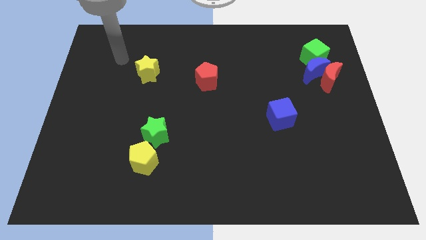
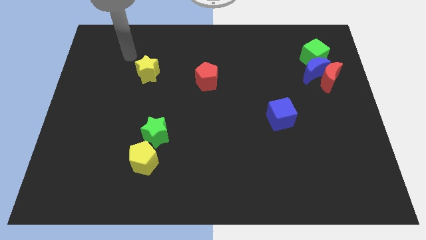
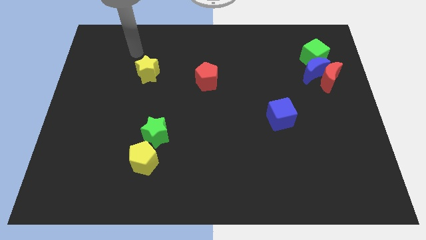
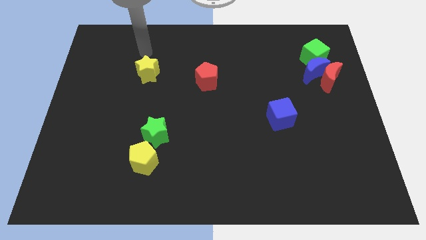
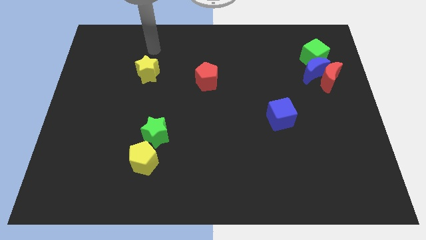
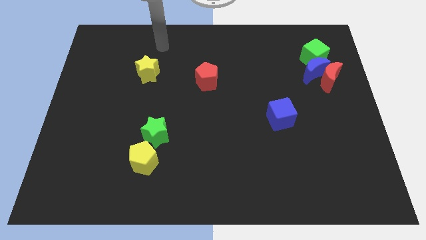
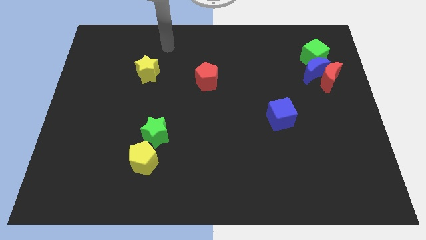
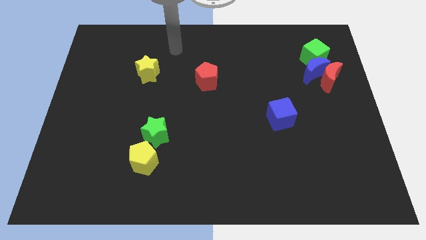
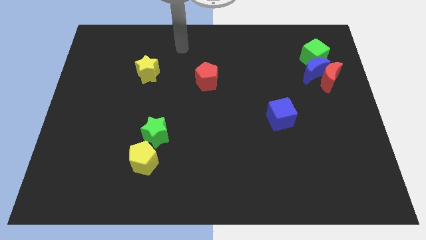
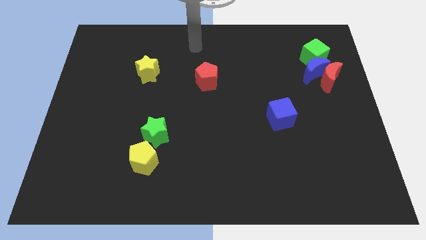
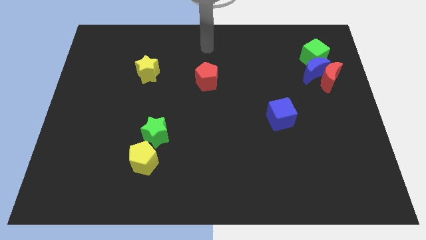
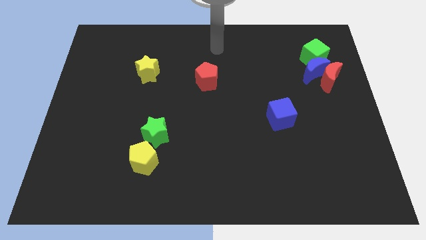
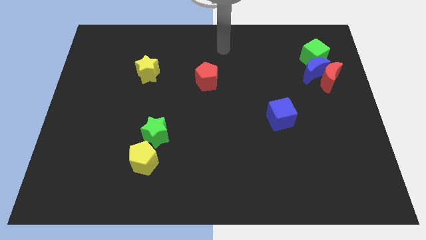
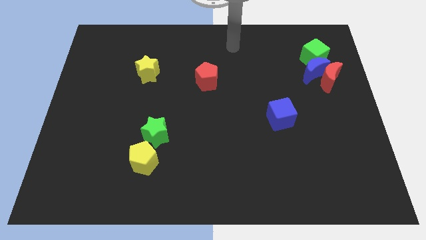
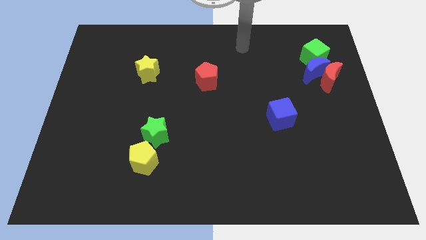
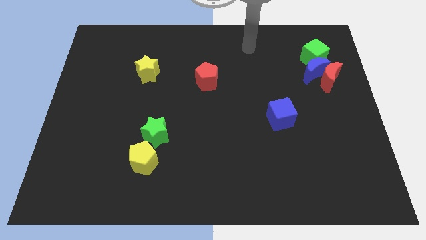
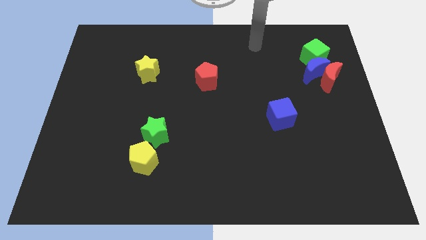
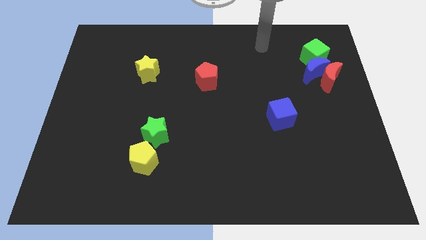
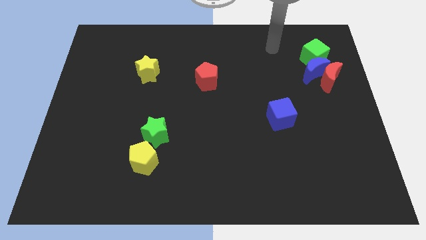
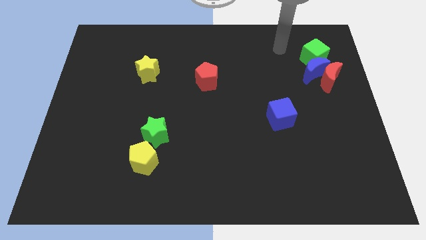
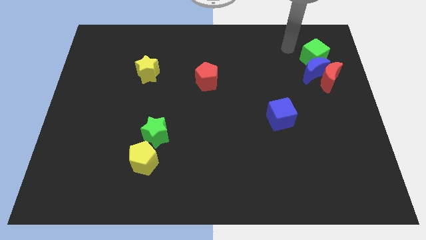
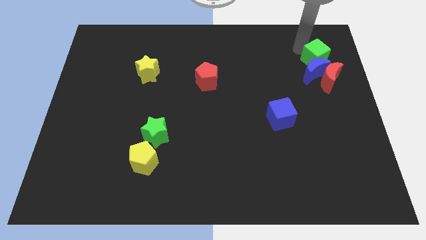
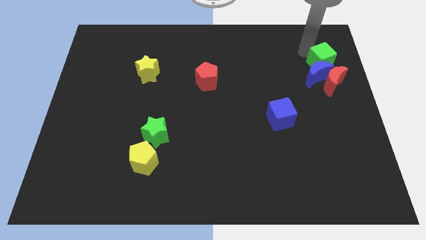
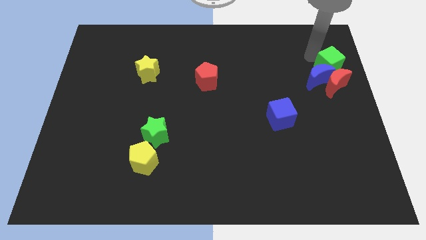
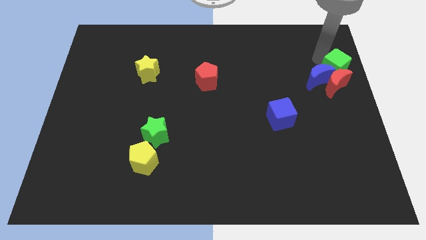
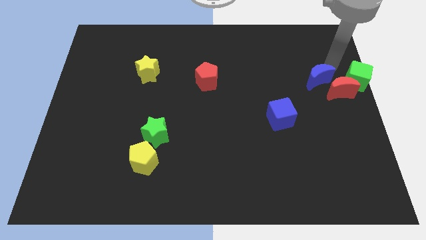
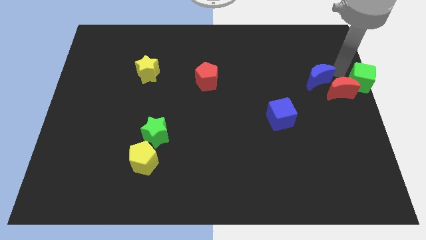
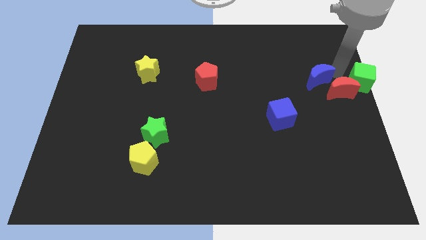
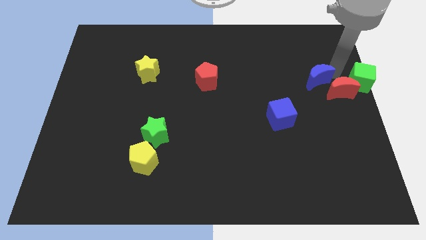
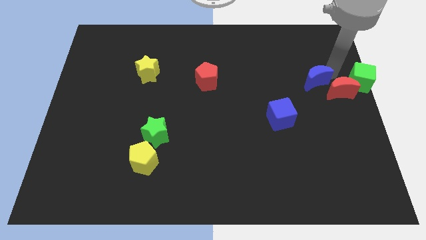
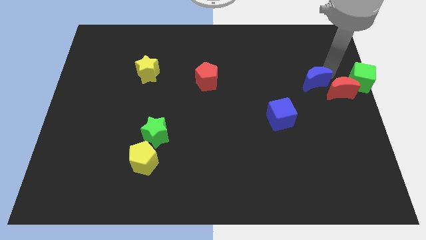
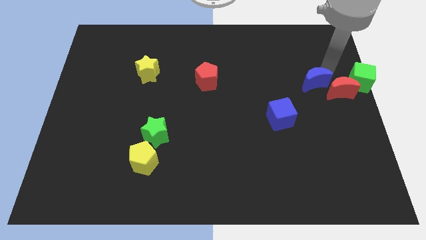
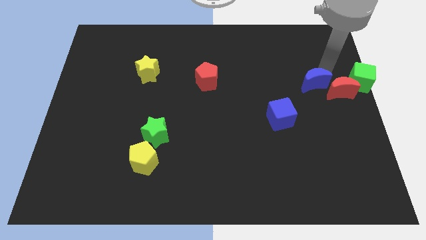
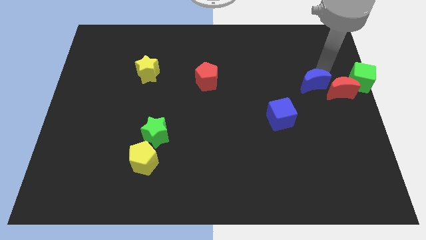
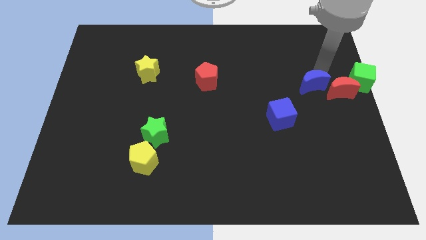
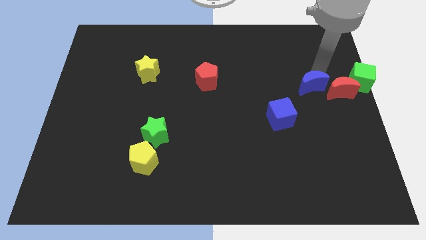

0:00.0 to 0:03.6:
pull the blue moon apart from the red moon and green cube

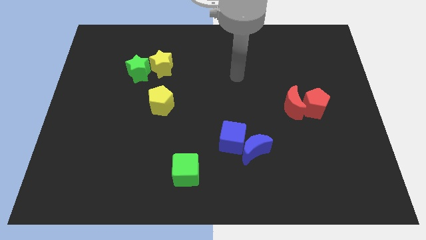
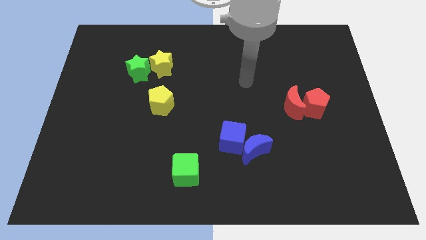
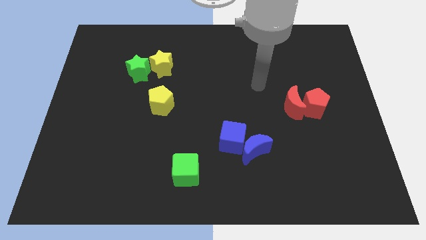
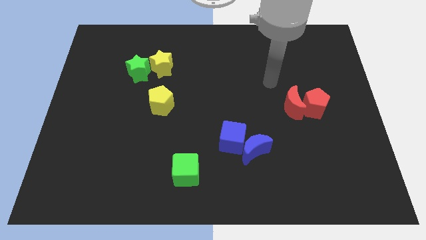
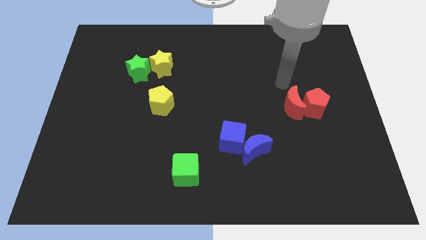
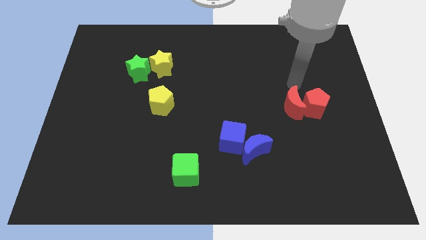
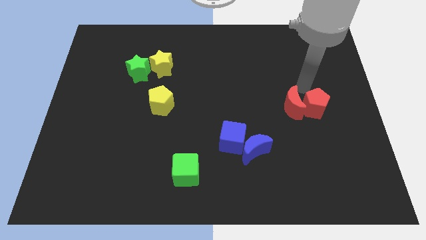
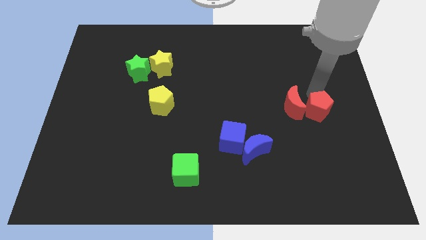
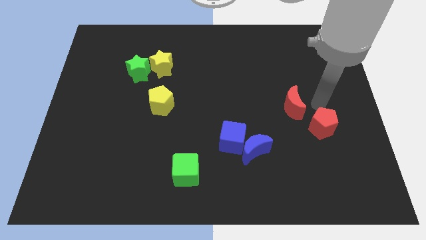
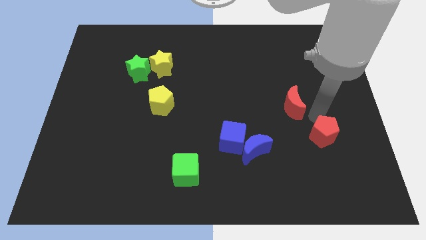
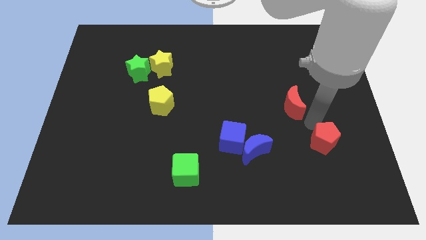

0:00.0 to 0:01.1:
move the red moon away from the red pentagon

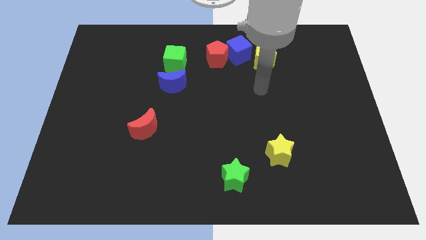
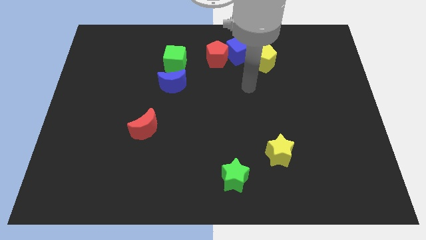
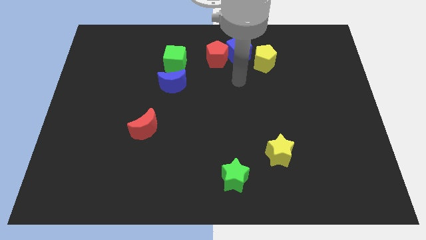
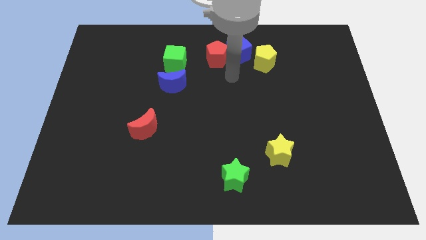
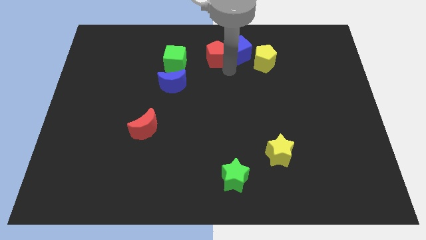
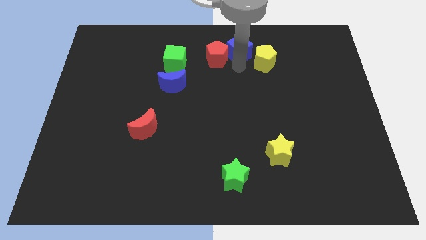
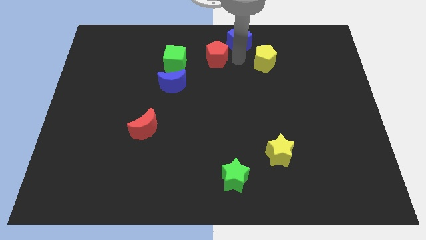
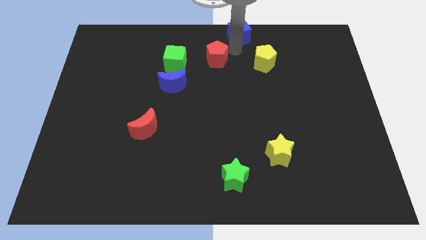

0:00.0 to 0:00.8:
move the red pentagon away from the blue cube

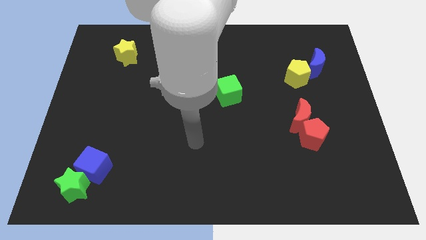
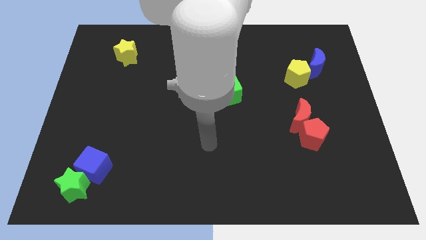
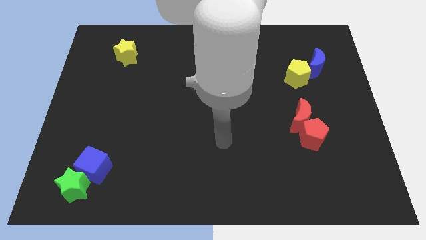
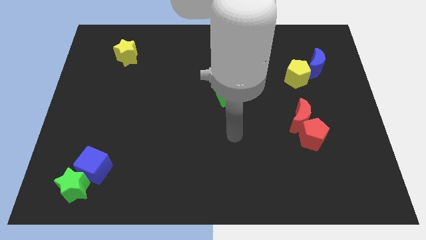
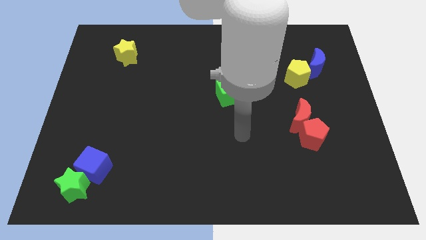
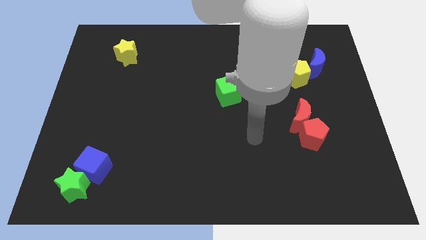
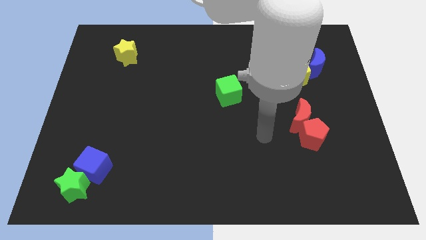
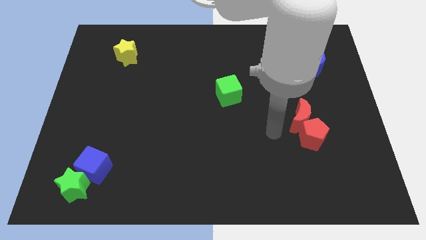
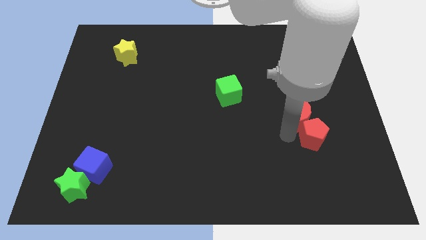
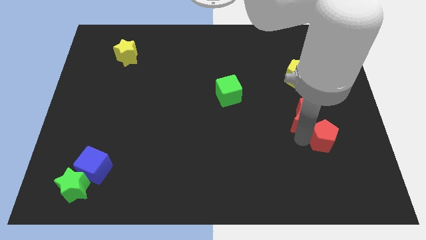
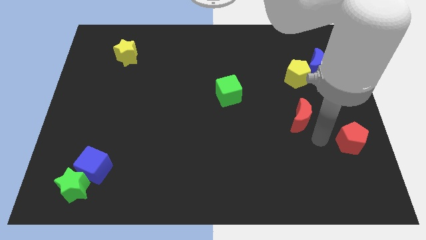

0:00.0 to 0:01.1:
pull the red moon apart from the red pentagon

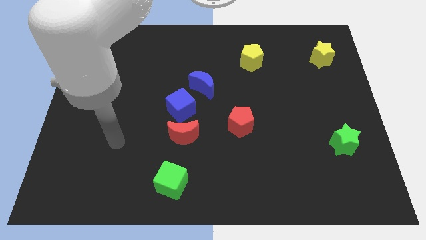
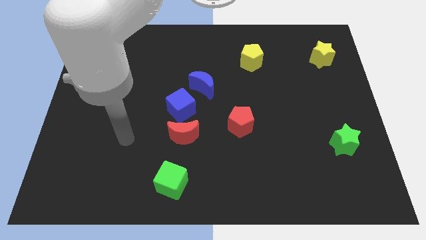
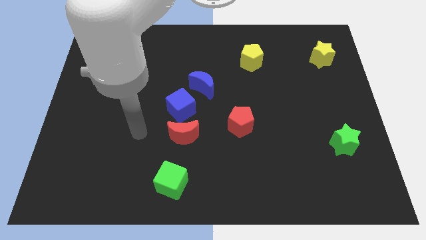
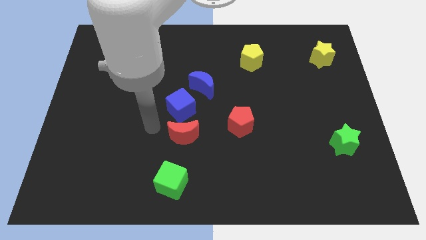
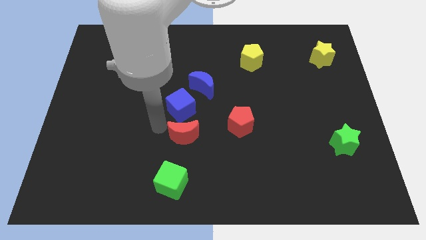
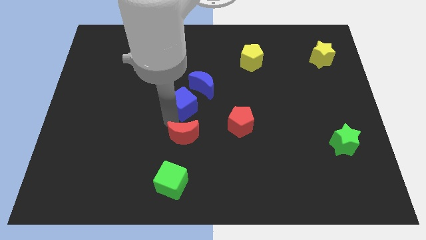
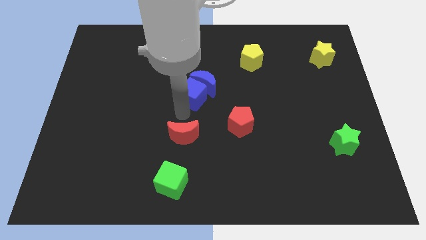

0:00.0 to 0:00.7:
pull the red moon apart from the blue cube

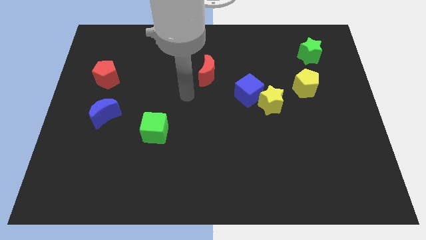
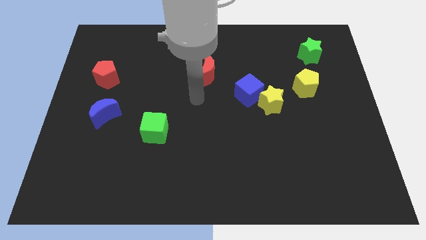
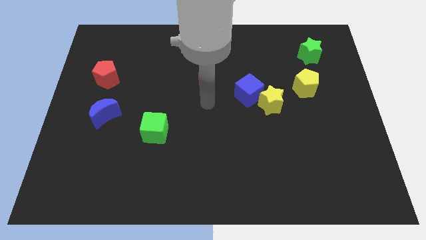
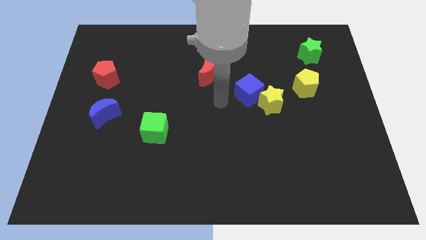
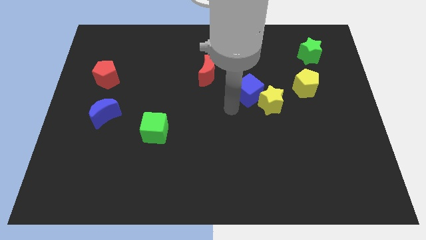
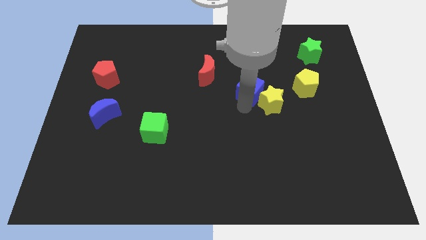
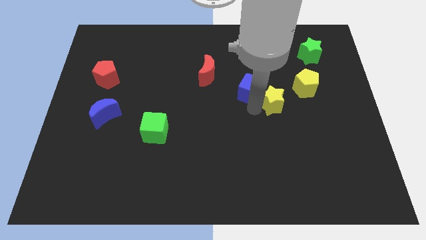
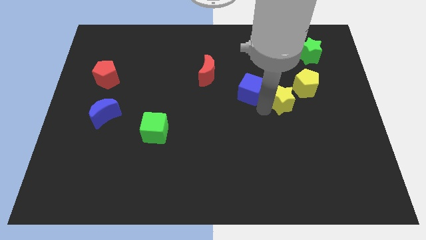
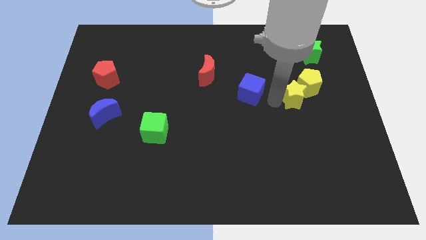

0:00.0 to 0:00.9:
move the blue cube away from the yellow star

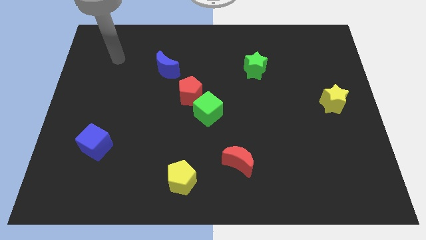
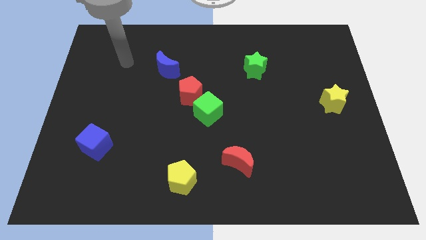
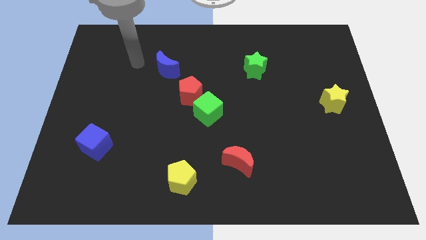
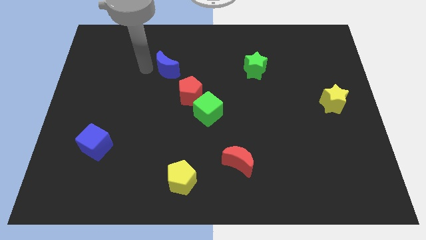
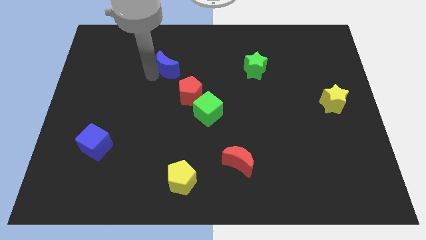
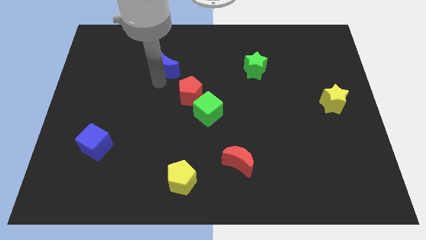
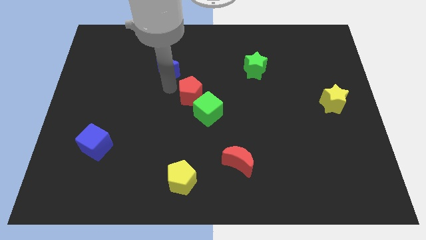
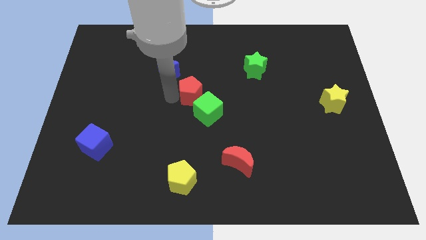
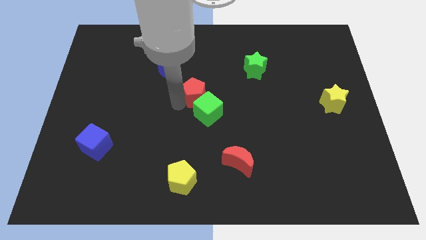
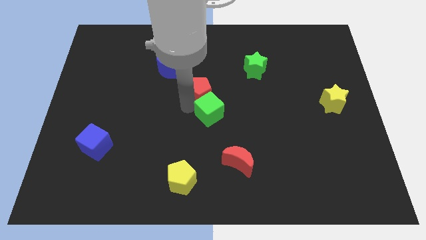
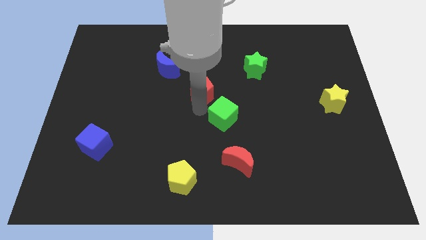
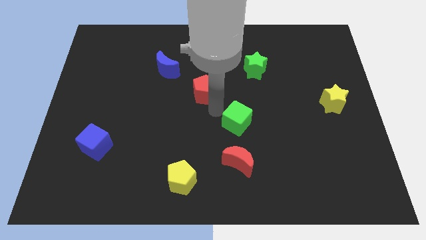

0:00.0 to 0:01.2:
separate the red pentagon from the green cube
